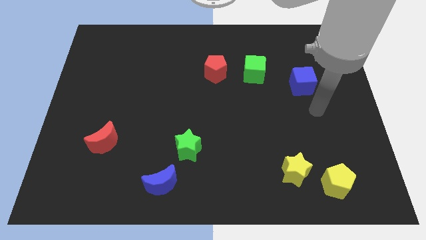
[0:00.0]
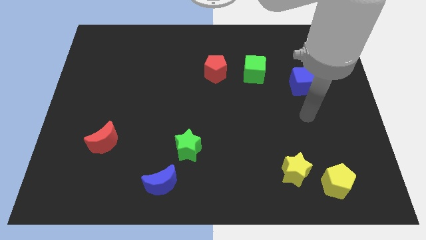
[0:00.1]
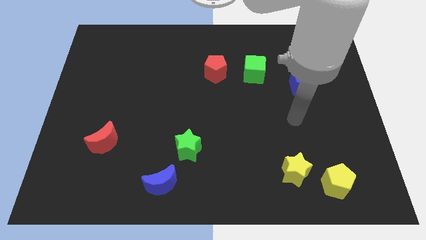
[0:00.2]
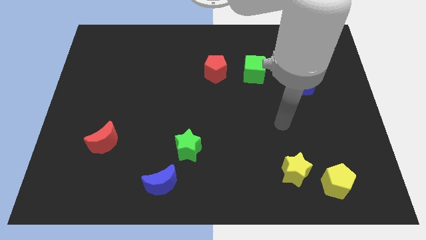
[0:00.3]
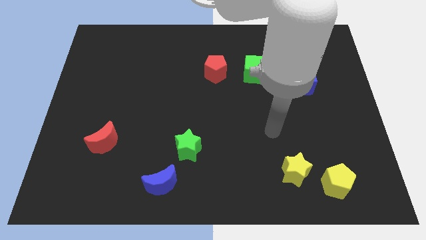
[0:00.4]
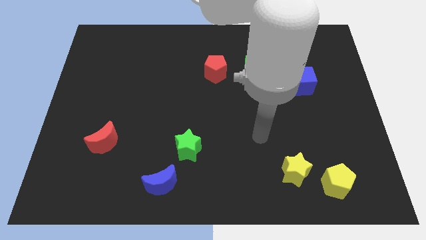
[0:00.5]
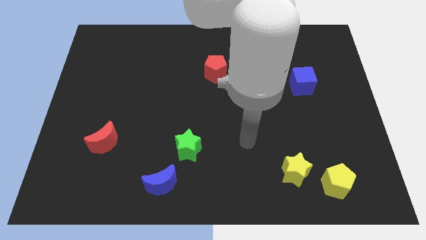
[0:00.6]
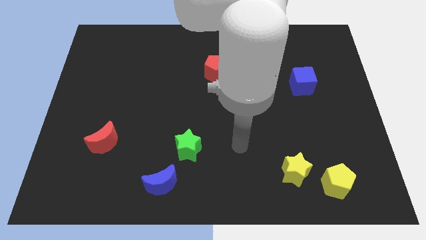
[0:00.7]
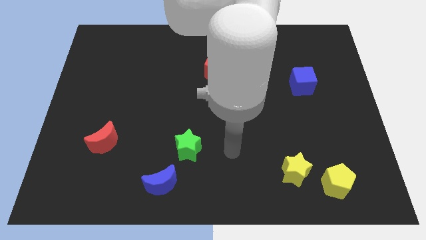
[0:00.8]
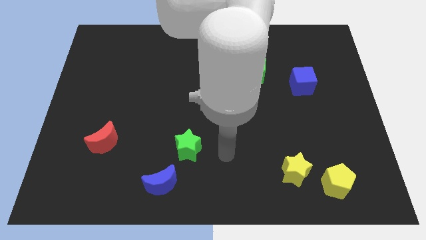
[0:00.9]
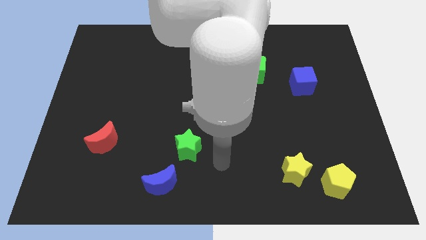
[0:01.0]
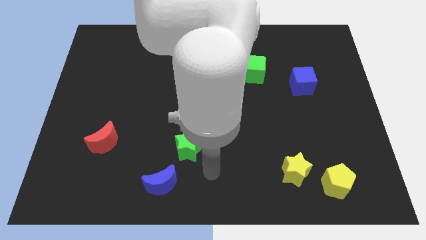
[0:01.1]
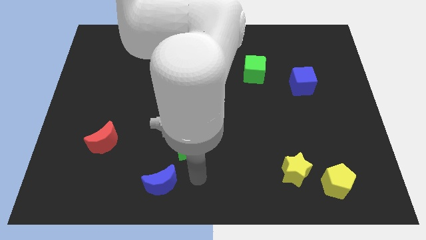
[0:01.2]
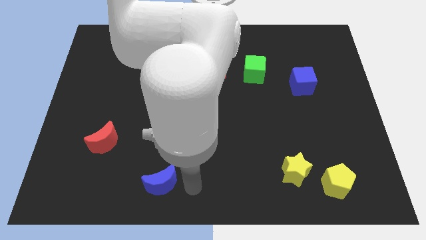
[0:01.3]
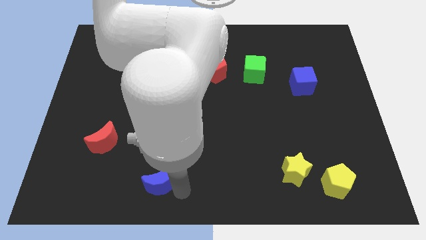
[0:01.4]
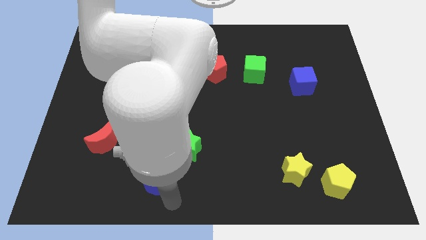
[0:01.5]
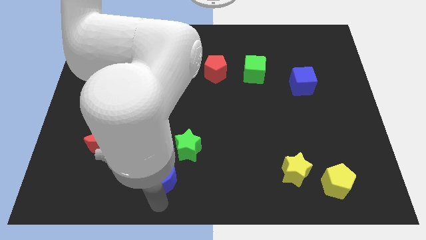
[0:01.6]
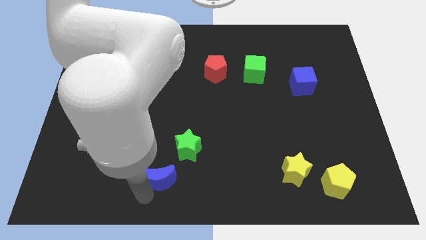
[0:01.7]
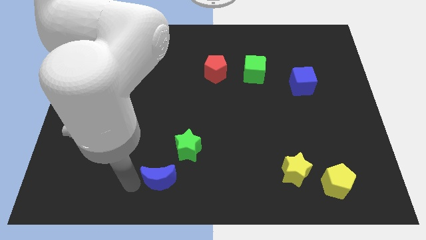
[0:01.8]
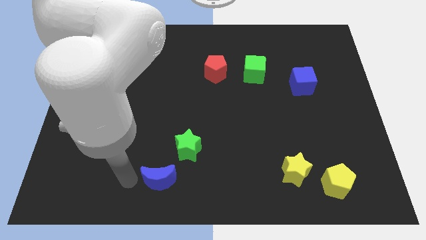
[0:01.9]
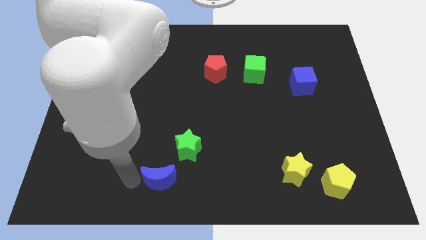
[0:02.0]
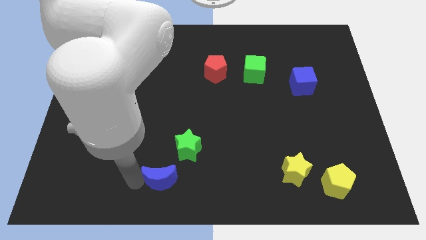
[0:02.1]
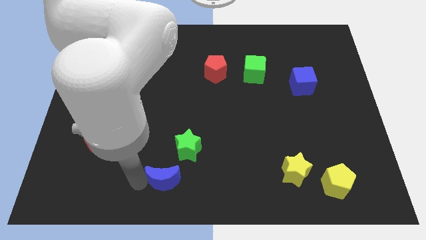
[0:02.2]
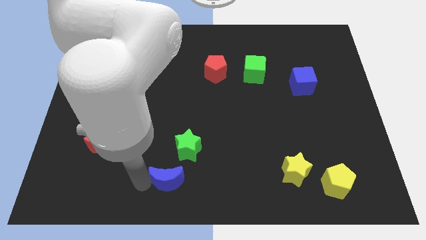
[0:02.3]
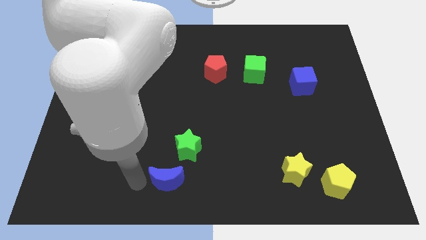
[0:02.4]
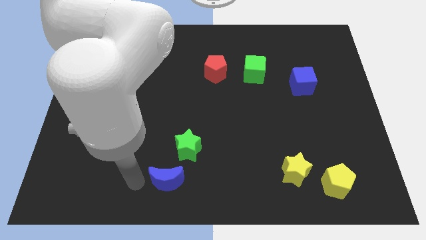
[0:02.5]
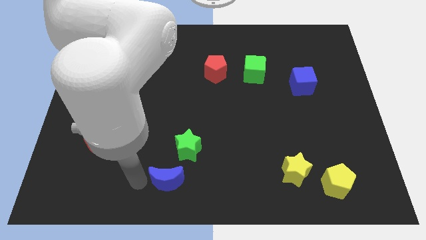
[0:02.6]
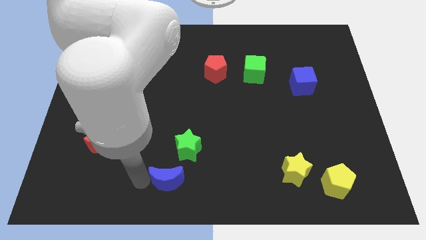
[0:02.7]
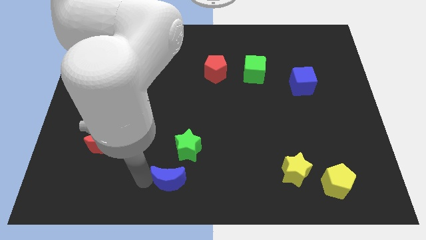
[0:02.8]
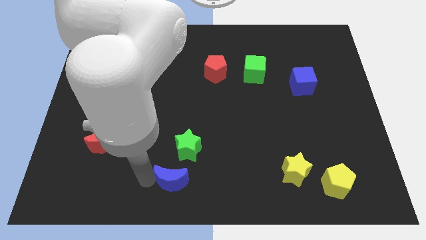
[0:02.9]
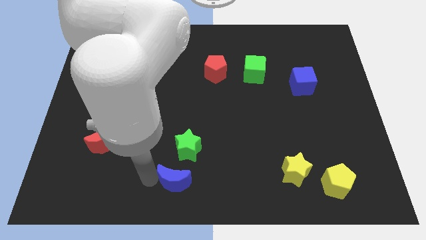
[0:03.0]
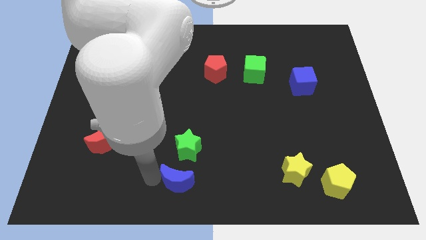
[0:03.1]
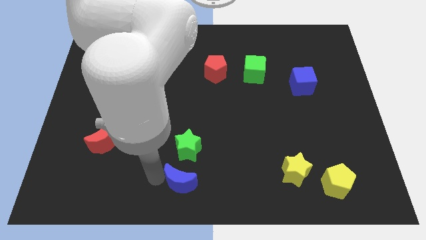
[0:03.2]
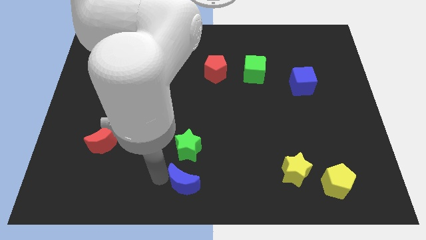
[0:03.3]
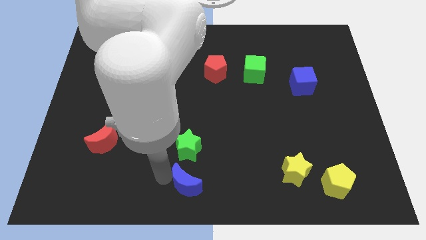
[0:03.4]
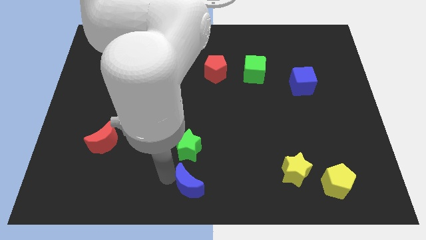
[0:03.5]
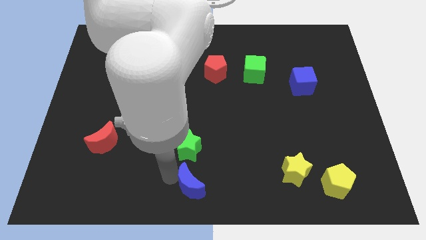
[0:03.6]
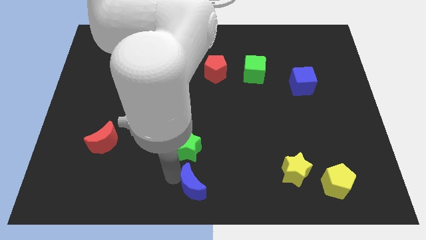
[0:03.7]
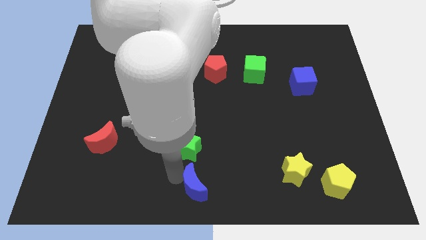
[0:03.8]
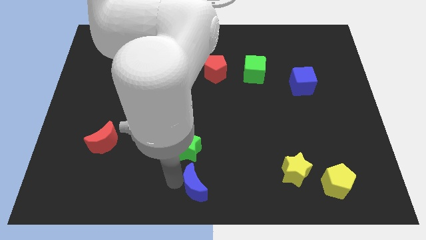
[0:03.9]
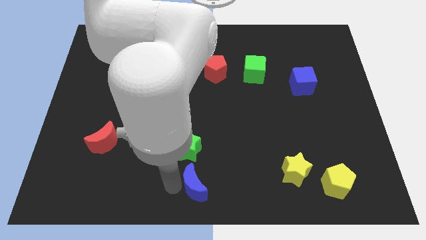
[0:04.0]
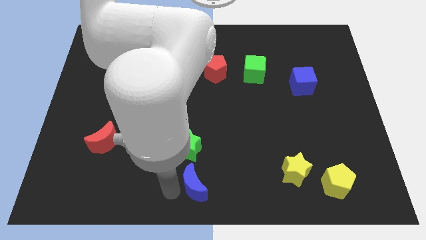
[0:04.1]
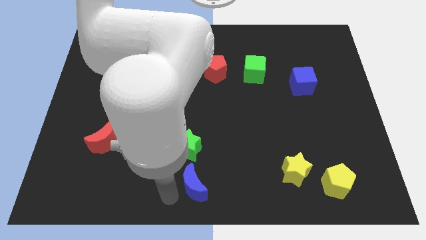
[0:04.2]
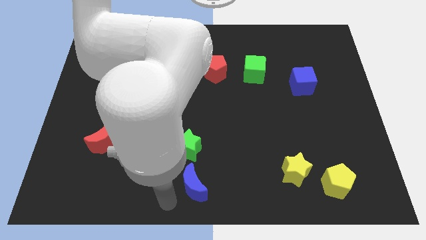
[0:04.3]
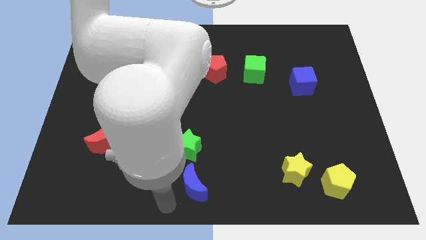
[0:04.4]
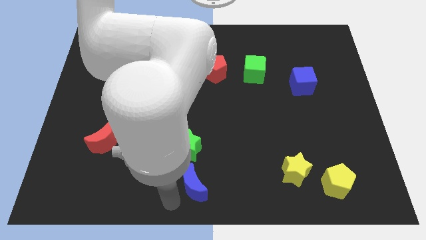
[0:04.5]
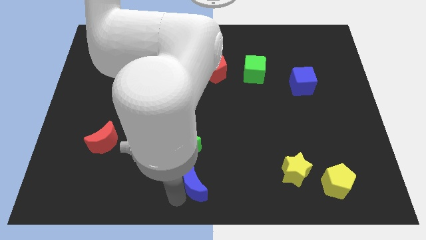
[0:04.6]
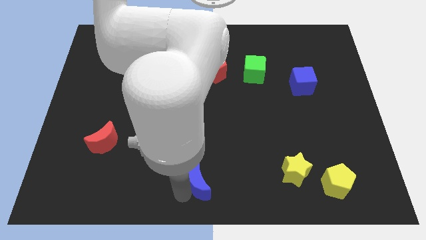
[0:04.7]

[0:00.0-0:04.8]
push the blue moon right slightly

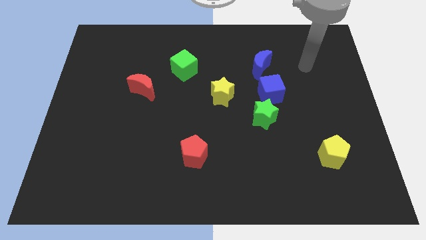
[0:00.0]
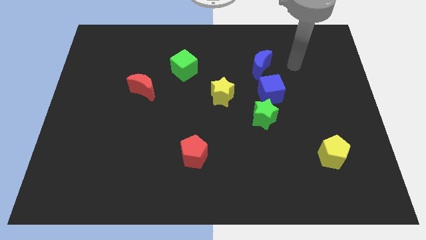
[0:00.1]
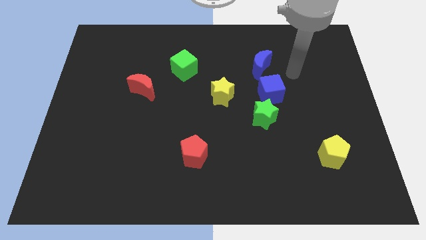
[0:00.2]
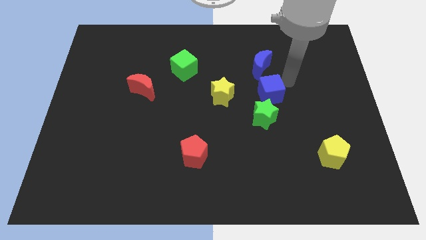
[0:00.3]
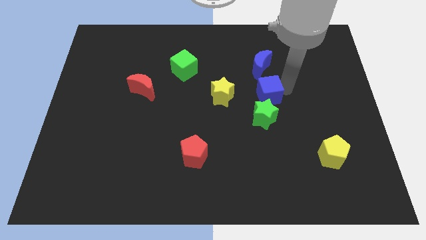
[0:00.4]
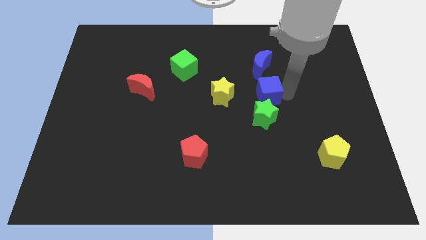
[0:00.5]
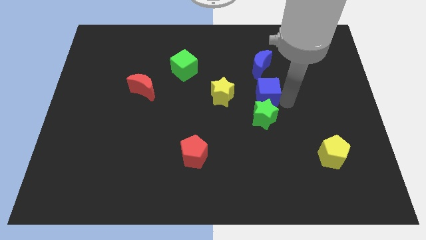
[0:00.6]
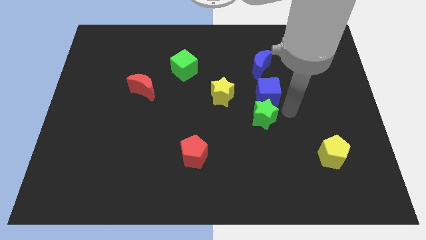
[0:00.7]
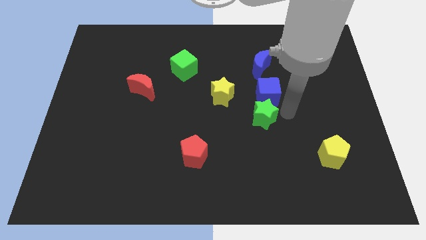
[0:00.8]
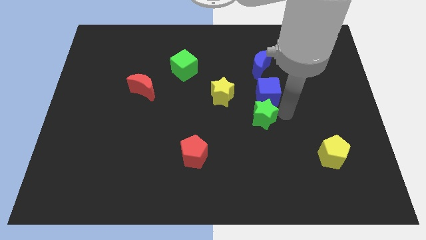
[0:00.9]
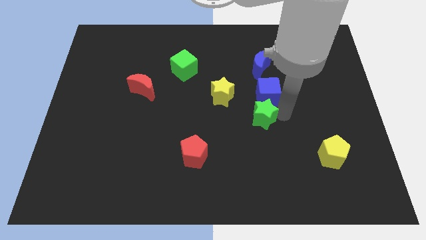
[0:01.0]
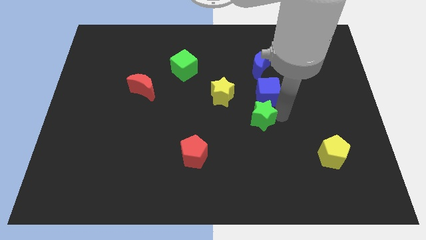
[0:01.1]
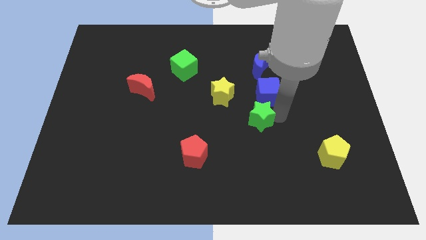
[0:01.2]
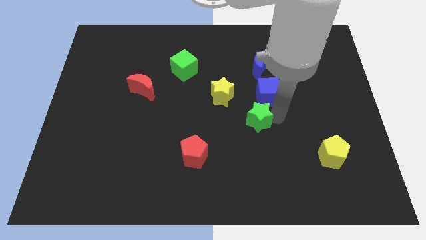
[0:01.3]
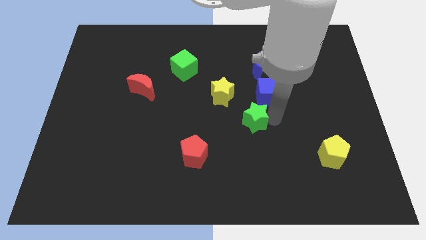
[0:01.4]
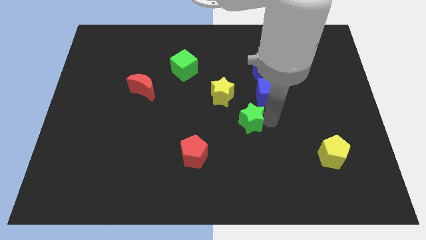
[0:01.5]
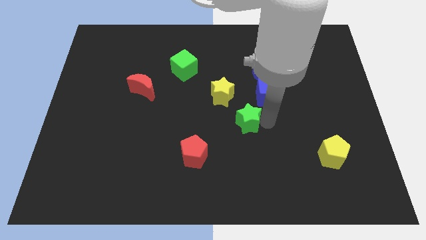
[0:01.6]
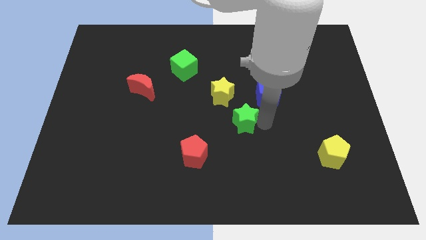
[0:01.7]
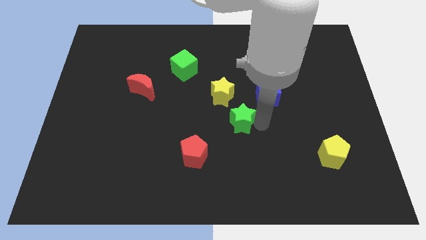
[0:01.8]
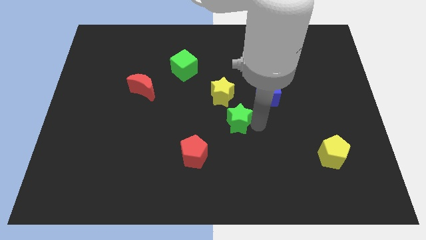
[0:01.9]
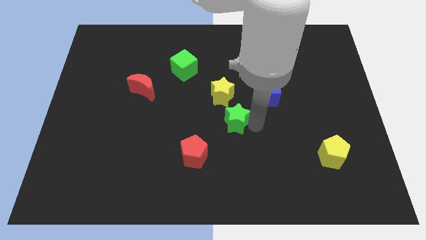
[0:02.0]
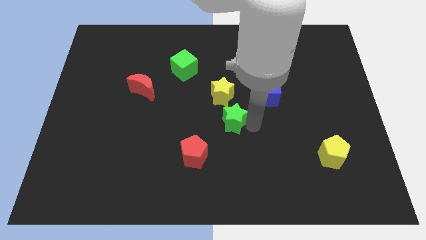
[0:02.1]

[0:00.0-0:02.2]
move the green star a little bit left

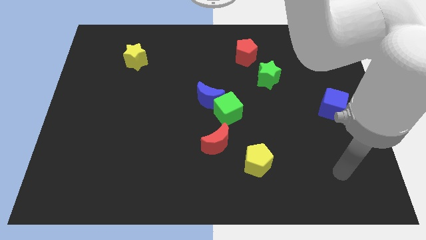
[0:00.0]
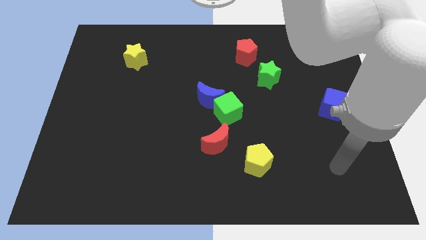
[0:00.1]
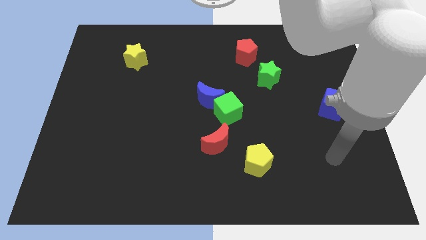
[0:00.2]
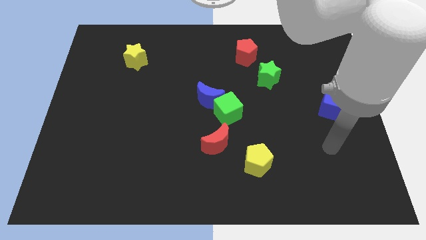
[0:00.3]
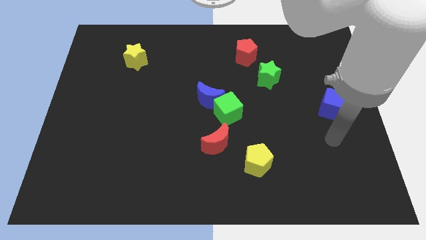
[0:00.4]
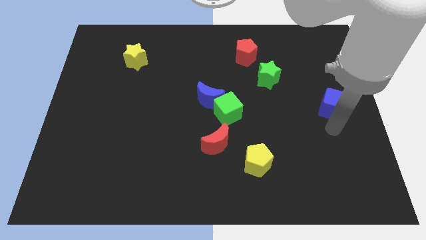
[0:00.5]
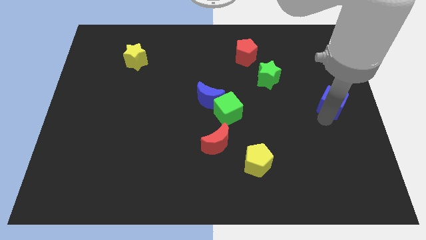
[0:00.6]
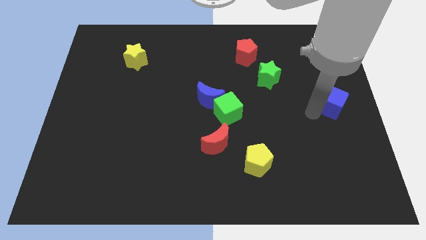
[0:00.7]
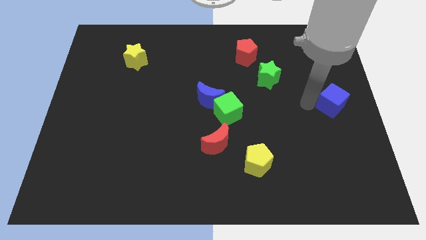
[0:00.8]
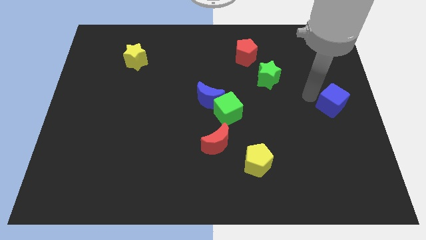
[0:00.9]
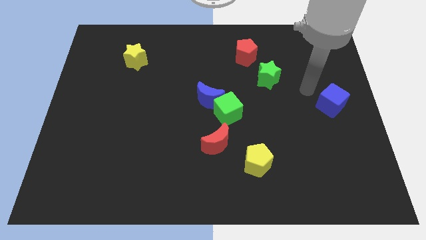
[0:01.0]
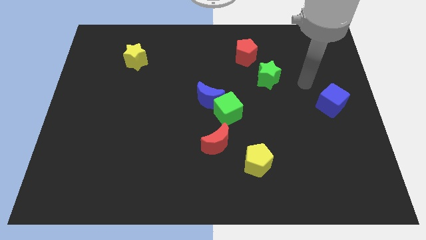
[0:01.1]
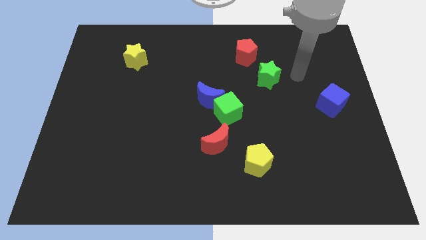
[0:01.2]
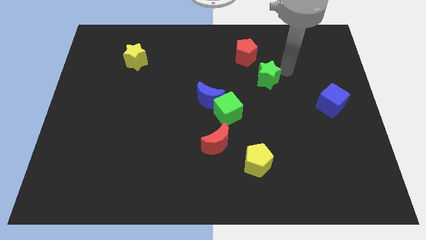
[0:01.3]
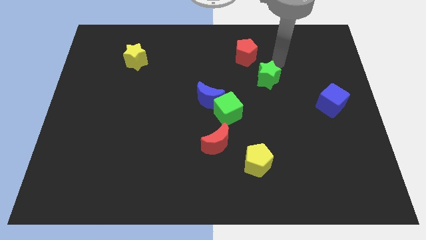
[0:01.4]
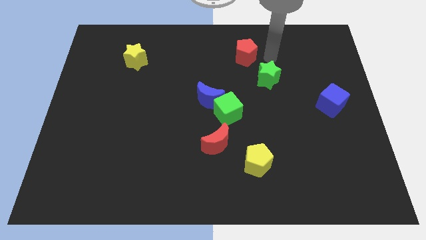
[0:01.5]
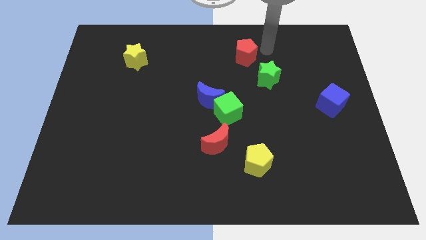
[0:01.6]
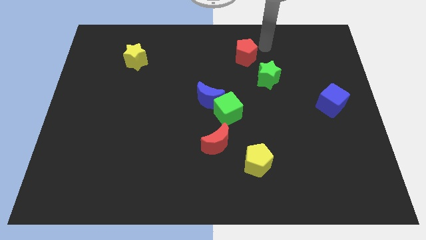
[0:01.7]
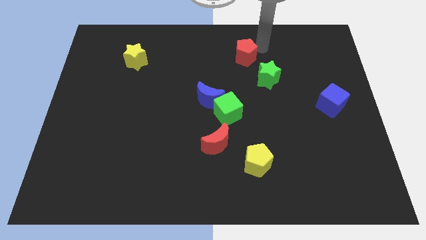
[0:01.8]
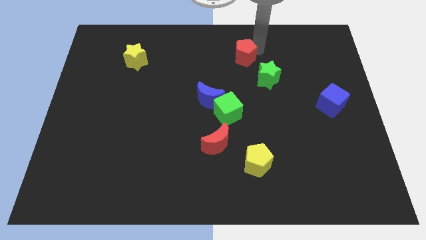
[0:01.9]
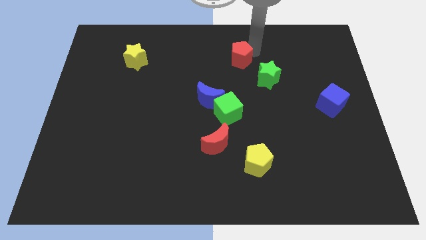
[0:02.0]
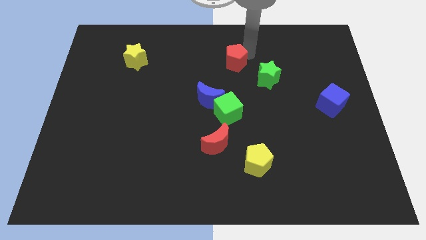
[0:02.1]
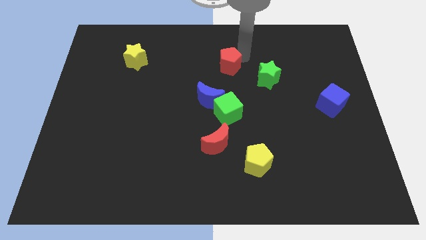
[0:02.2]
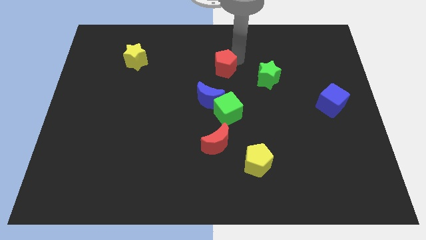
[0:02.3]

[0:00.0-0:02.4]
push the red pentagon downwards and to the left a little
